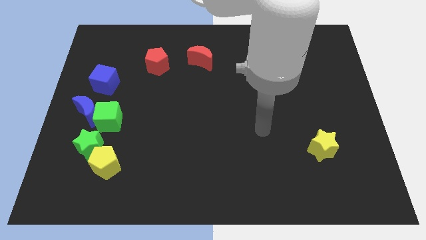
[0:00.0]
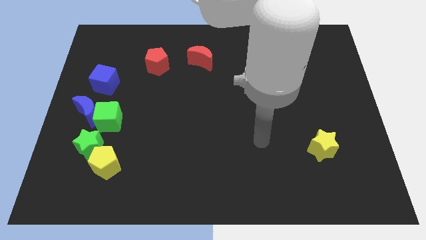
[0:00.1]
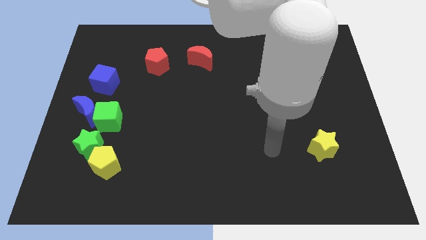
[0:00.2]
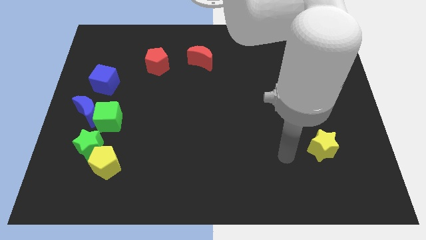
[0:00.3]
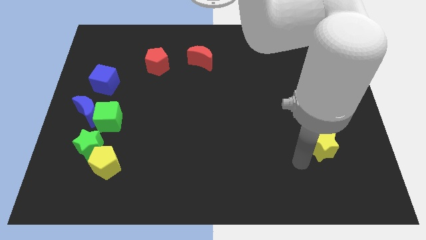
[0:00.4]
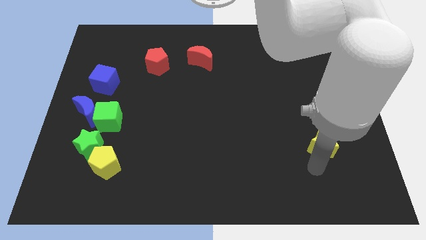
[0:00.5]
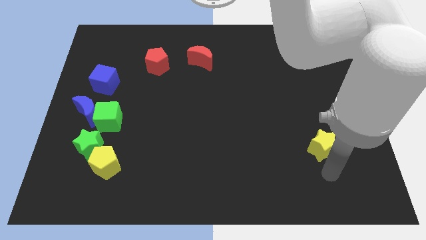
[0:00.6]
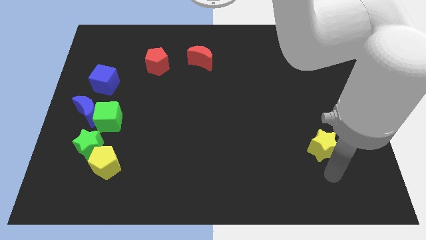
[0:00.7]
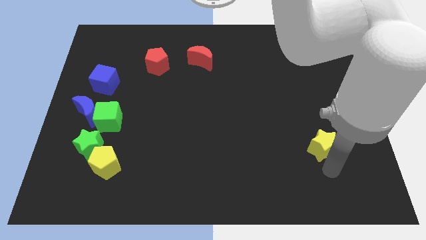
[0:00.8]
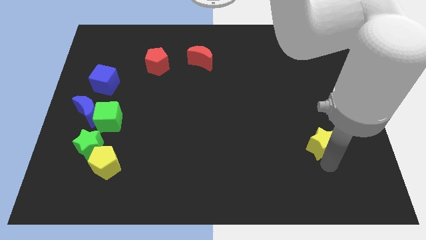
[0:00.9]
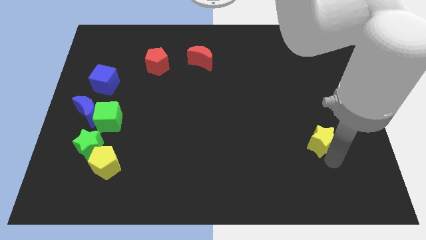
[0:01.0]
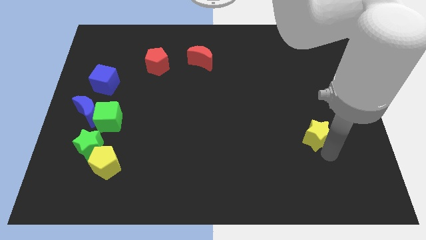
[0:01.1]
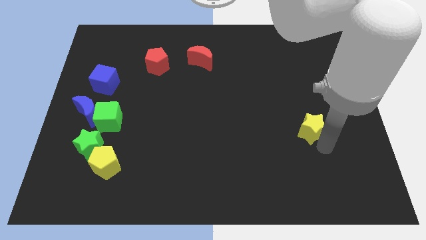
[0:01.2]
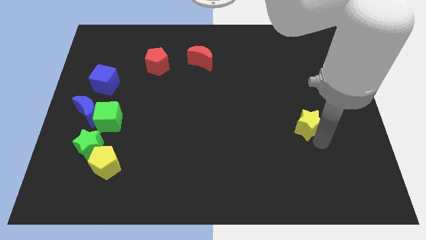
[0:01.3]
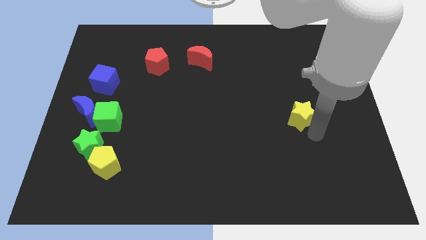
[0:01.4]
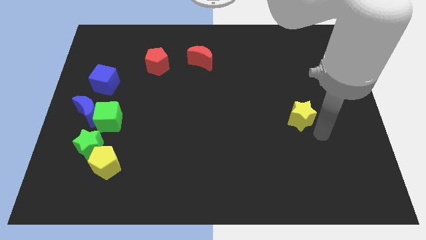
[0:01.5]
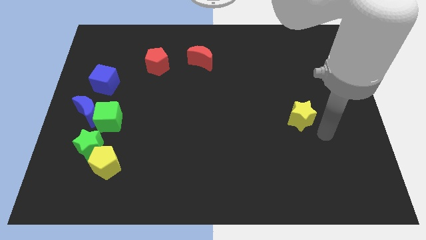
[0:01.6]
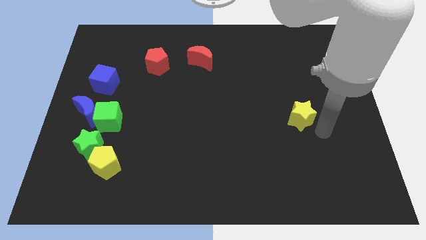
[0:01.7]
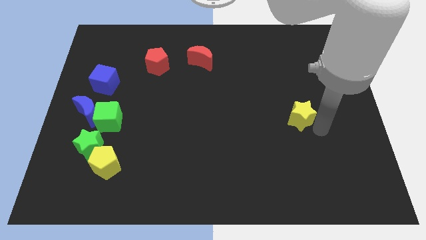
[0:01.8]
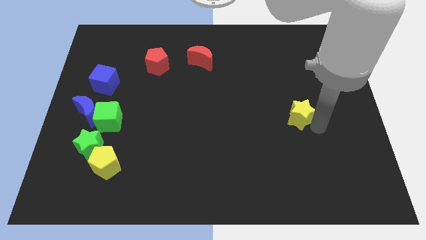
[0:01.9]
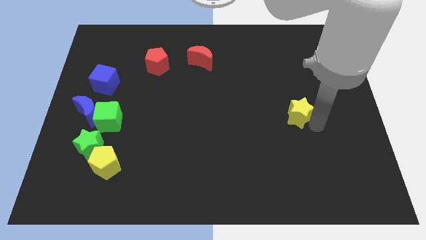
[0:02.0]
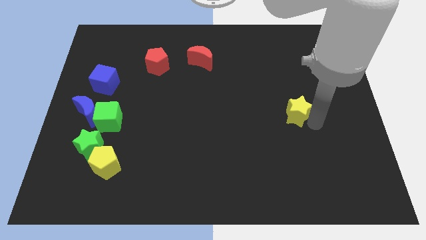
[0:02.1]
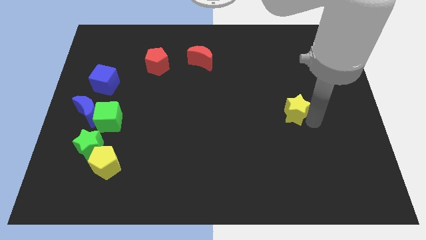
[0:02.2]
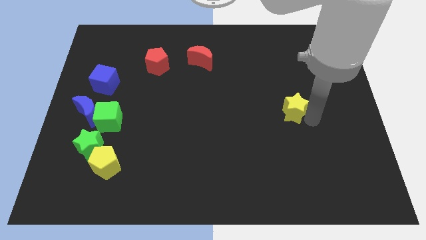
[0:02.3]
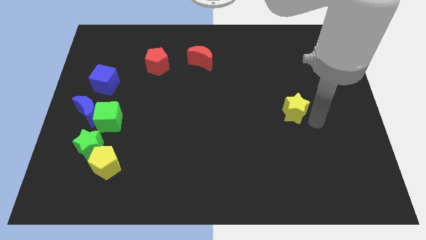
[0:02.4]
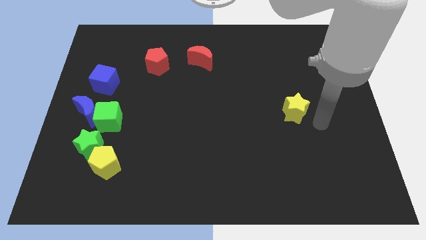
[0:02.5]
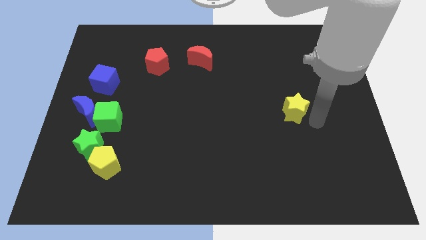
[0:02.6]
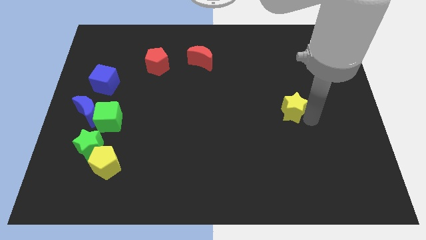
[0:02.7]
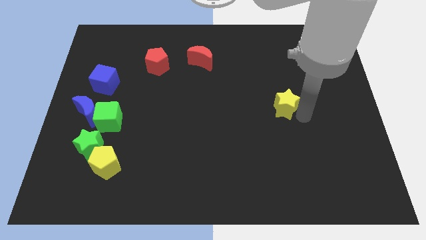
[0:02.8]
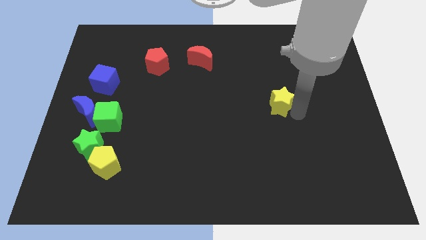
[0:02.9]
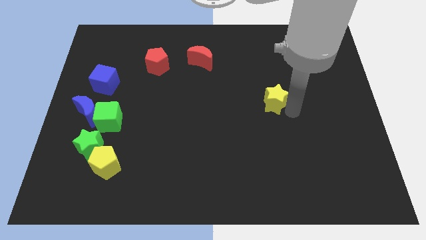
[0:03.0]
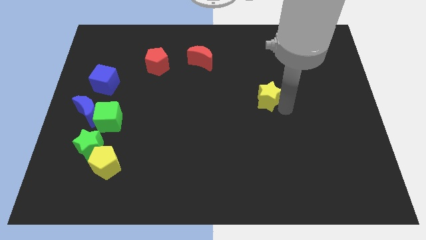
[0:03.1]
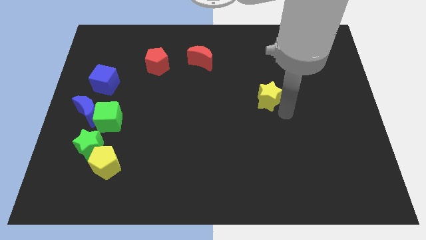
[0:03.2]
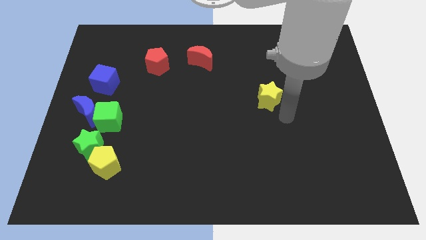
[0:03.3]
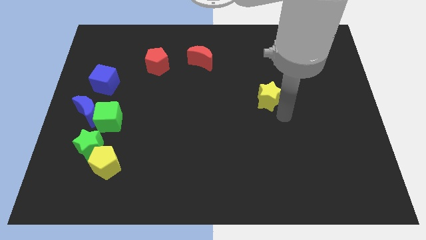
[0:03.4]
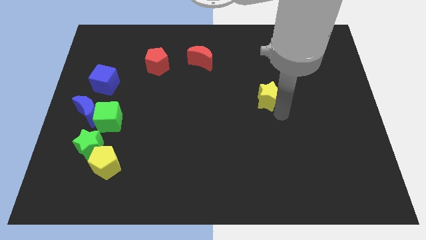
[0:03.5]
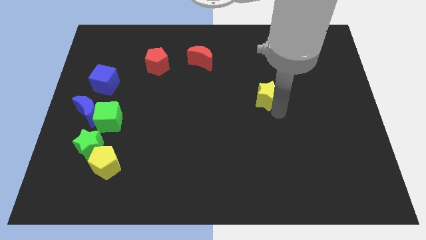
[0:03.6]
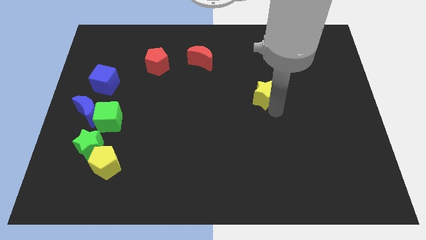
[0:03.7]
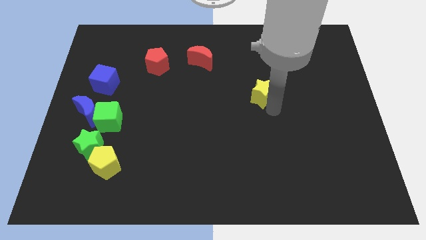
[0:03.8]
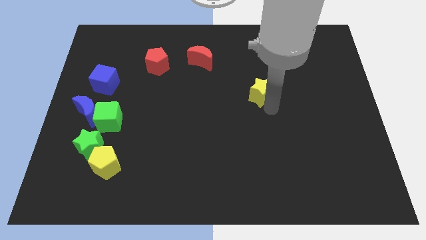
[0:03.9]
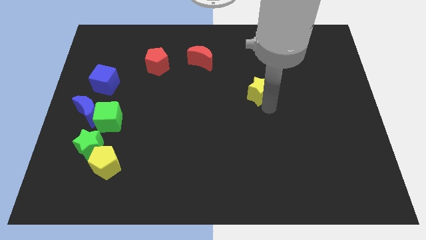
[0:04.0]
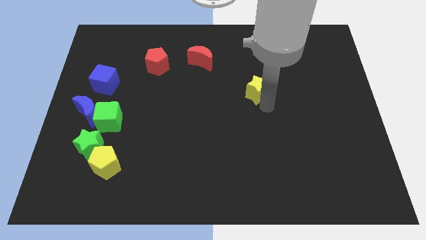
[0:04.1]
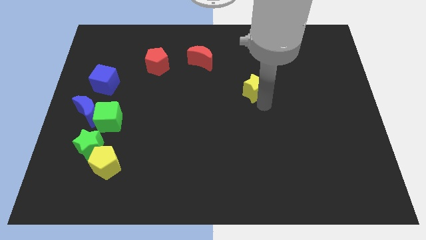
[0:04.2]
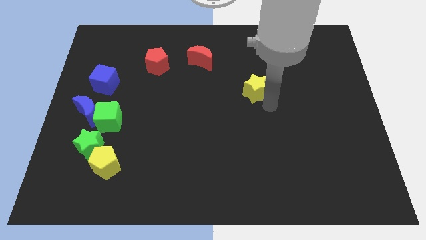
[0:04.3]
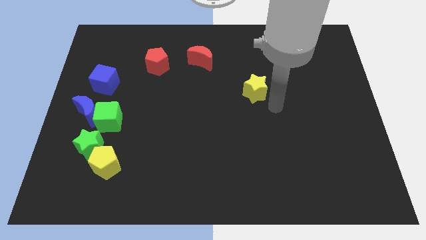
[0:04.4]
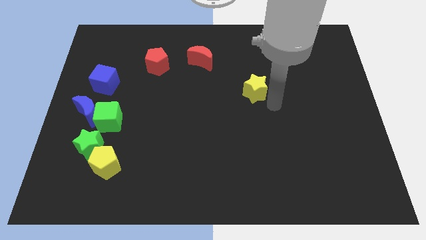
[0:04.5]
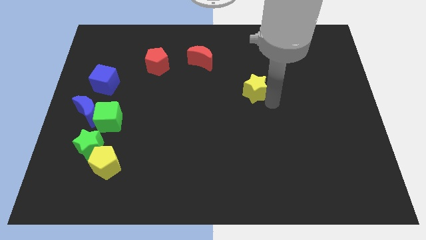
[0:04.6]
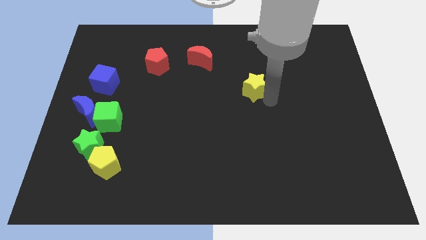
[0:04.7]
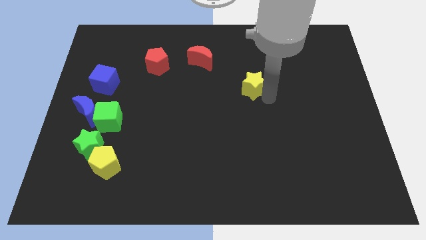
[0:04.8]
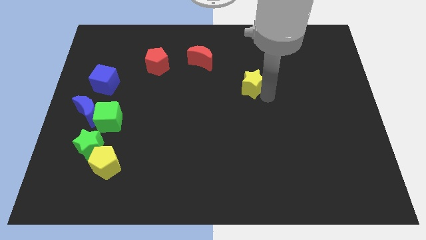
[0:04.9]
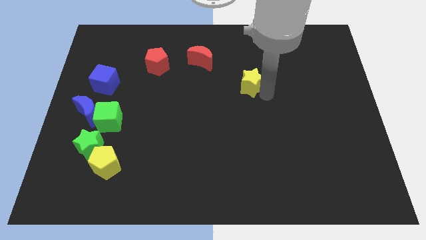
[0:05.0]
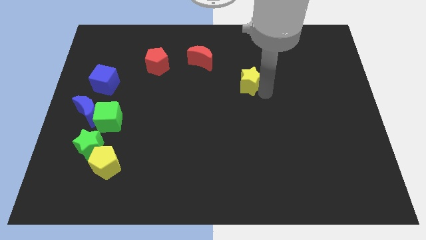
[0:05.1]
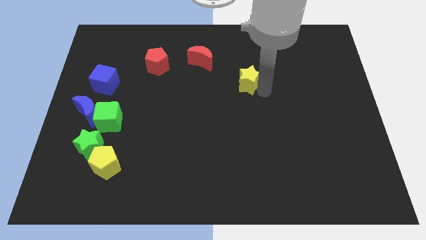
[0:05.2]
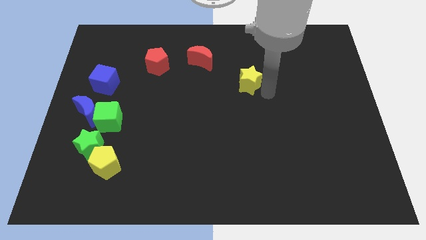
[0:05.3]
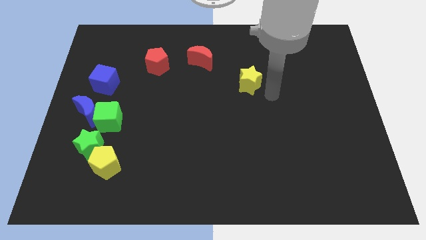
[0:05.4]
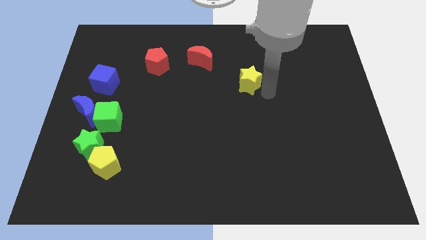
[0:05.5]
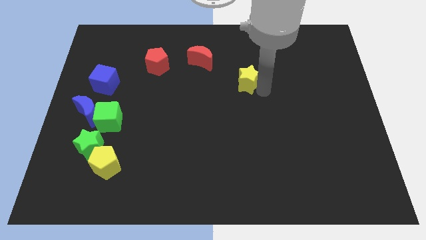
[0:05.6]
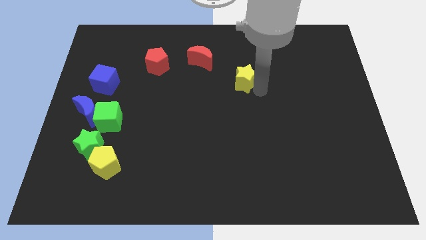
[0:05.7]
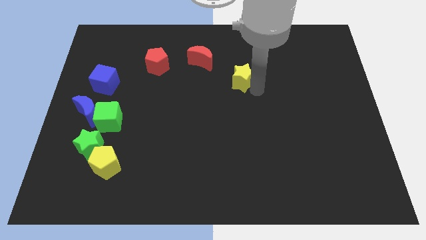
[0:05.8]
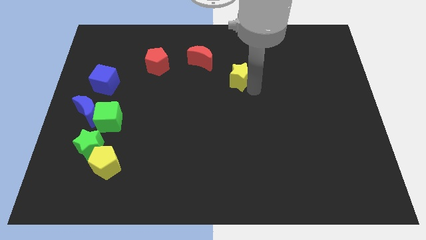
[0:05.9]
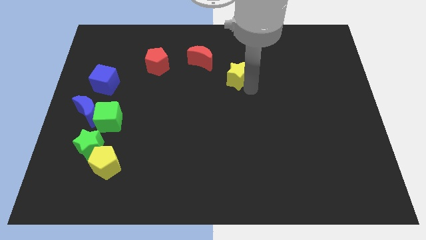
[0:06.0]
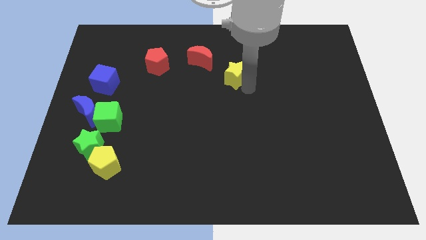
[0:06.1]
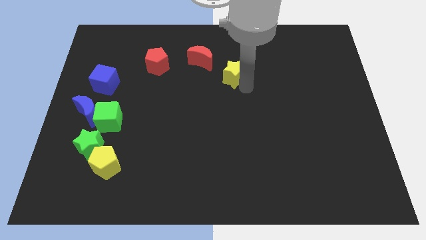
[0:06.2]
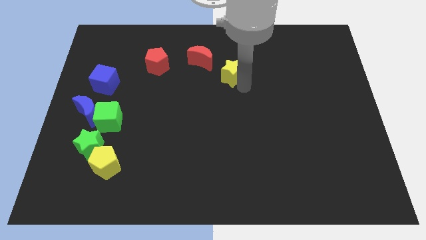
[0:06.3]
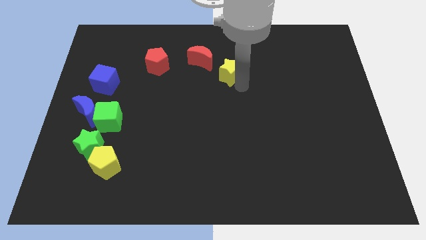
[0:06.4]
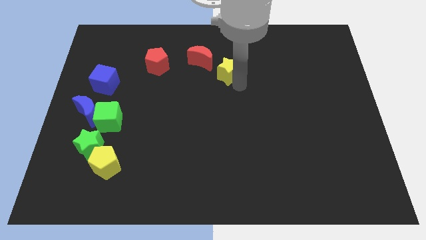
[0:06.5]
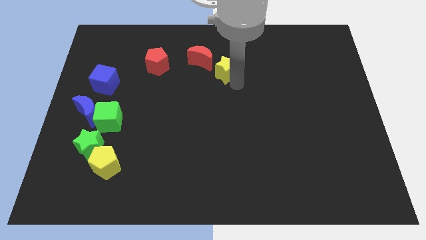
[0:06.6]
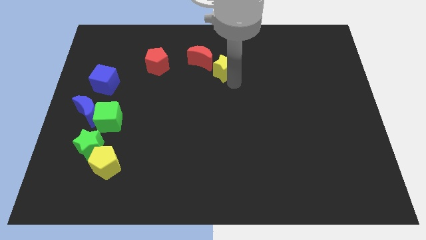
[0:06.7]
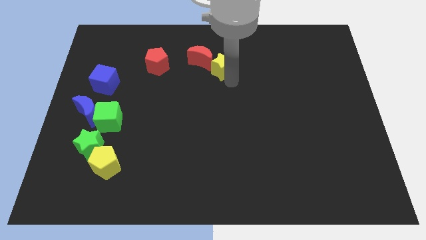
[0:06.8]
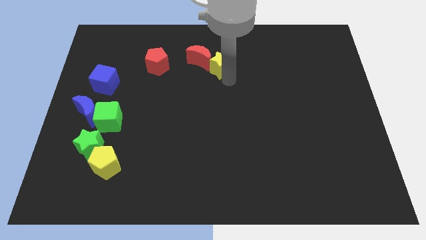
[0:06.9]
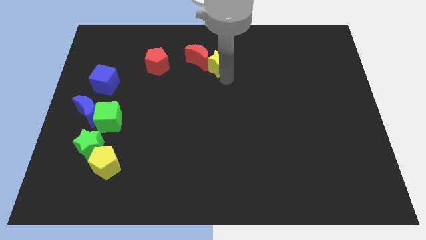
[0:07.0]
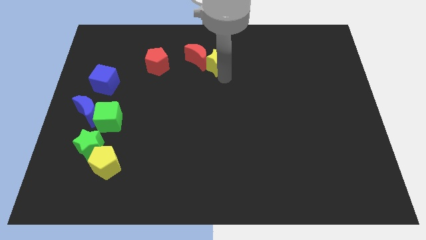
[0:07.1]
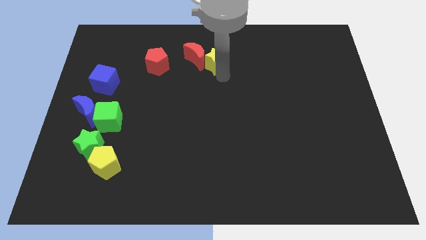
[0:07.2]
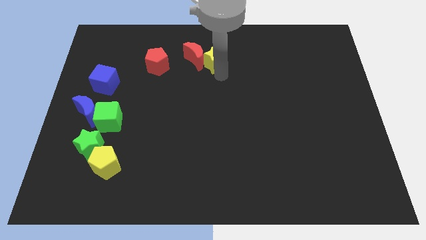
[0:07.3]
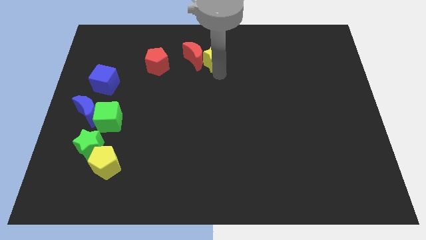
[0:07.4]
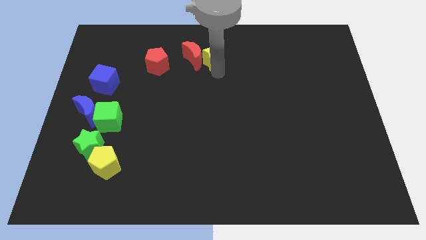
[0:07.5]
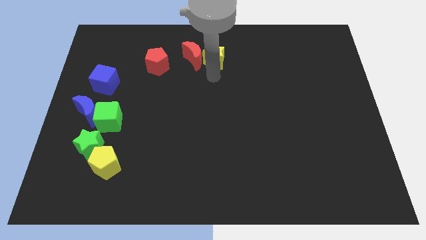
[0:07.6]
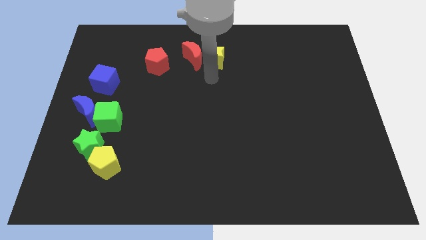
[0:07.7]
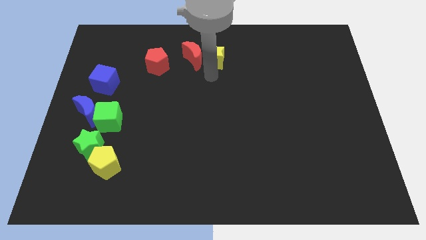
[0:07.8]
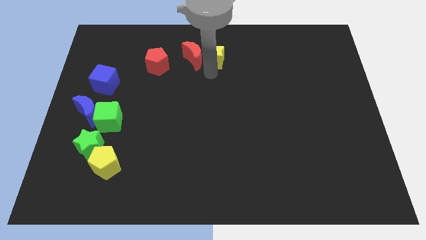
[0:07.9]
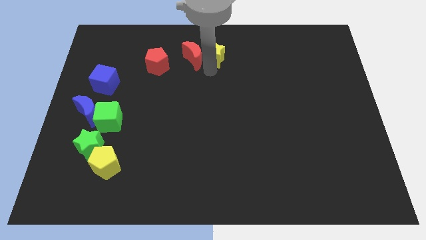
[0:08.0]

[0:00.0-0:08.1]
push the yellow star to the towards your base
